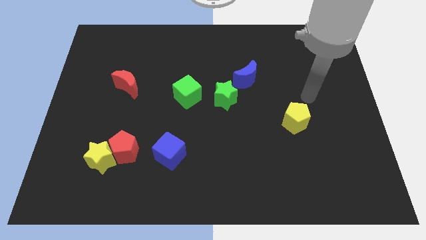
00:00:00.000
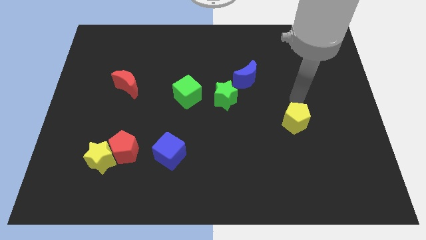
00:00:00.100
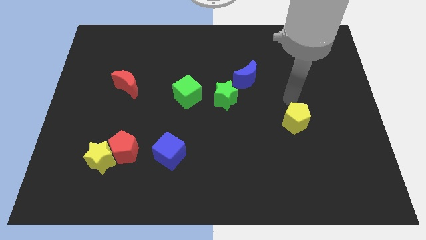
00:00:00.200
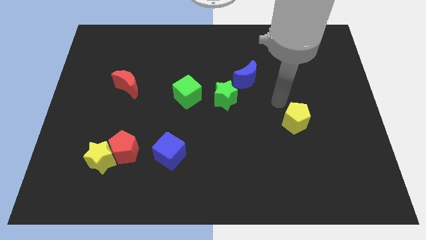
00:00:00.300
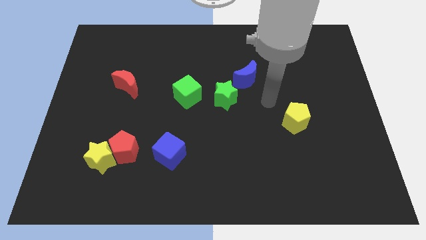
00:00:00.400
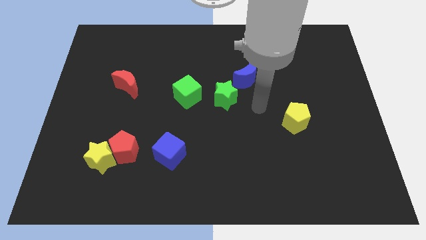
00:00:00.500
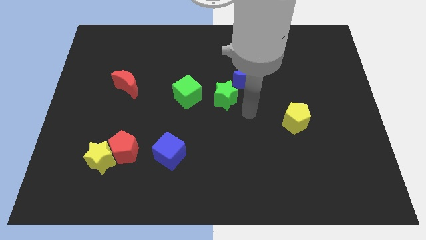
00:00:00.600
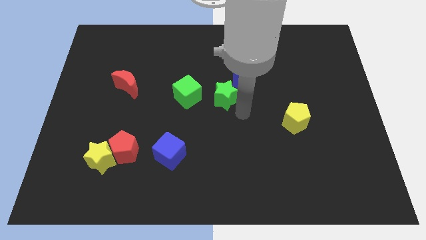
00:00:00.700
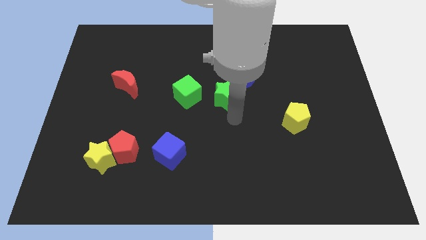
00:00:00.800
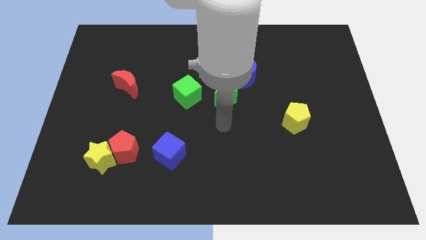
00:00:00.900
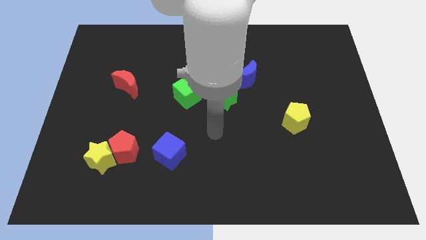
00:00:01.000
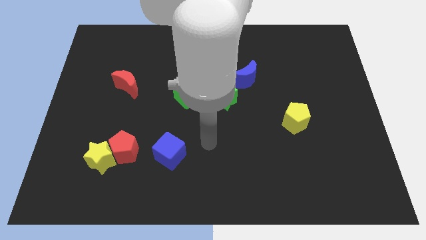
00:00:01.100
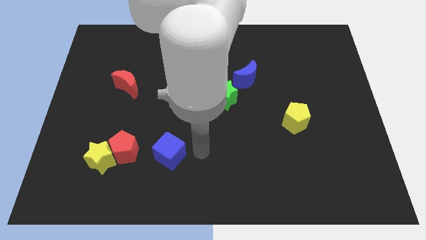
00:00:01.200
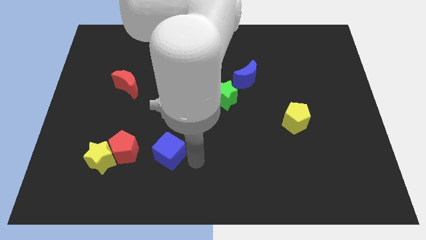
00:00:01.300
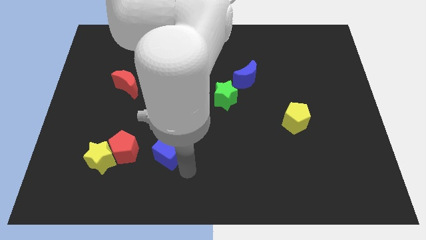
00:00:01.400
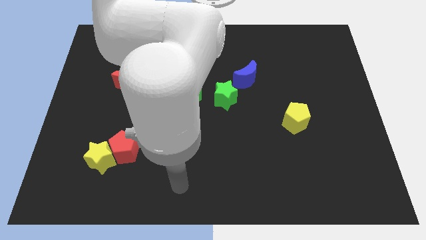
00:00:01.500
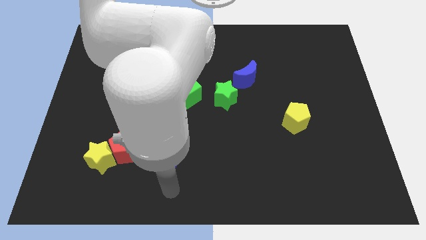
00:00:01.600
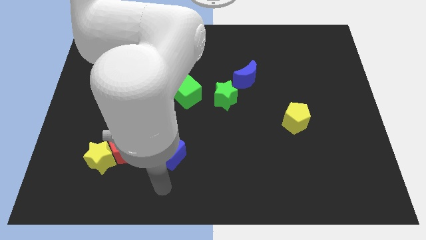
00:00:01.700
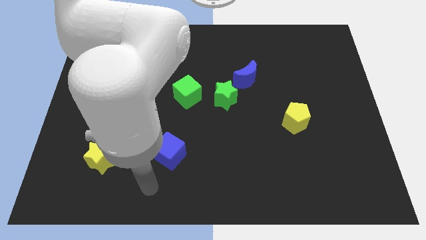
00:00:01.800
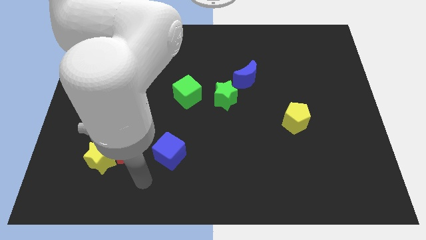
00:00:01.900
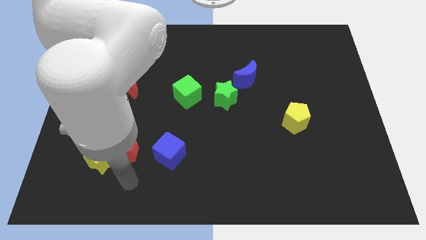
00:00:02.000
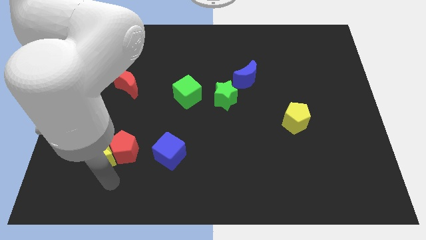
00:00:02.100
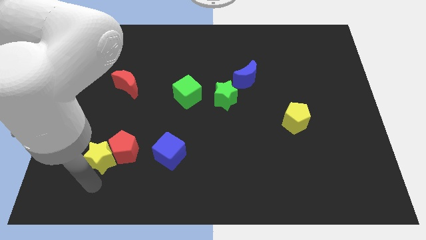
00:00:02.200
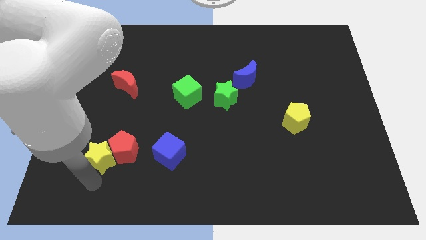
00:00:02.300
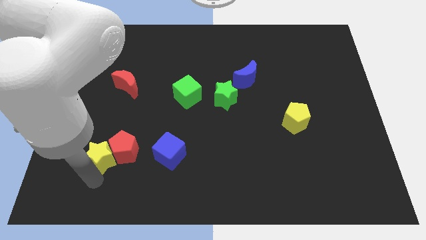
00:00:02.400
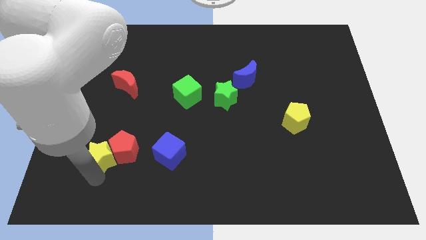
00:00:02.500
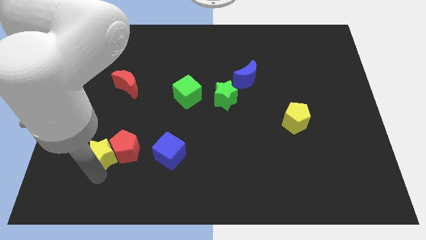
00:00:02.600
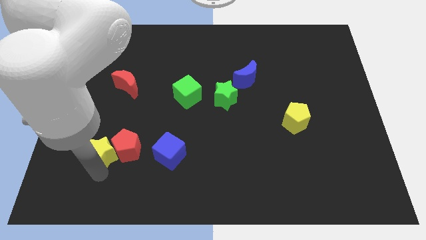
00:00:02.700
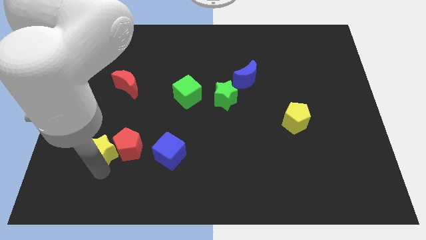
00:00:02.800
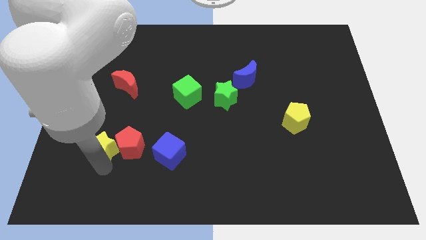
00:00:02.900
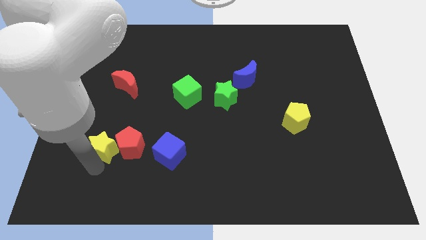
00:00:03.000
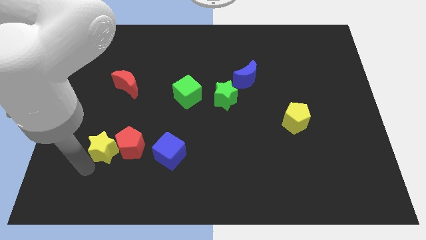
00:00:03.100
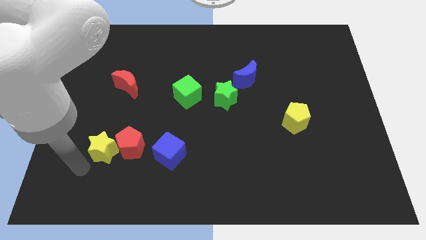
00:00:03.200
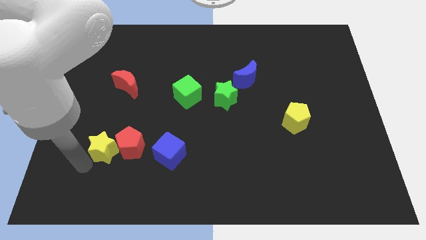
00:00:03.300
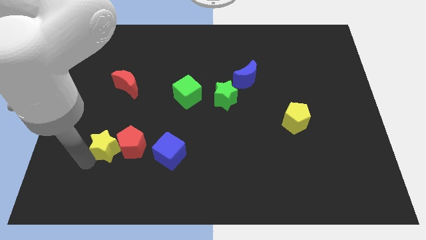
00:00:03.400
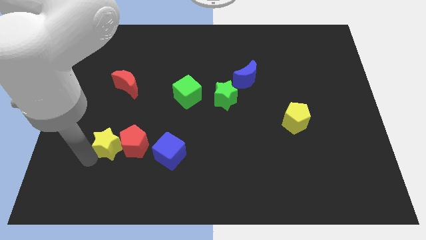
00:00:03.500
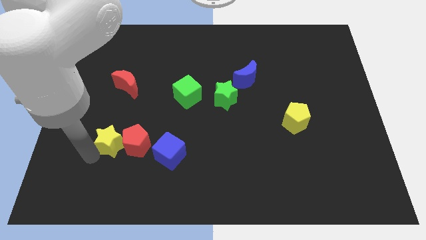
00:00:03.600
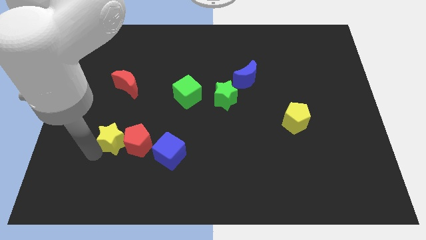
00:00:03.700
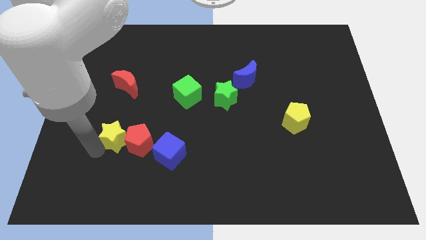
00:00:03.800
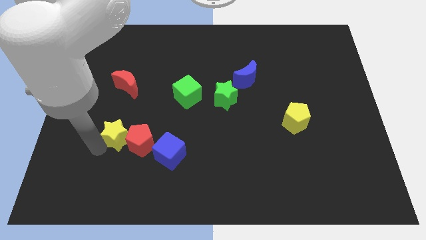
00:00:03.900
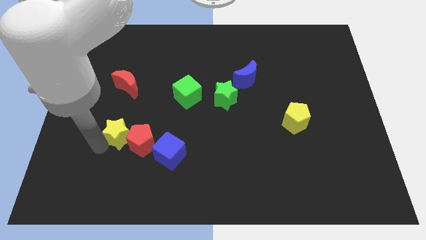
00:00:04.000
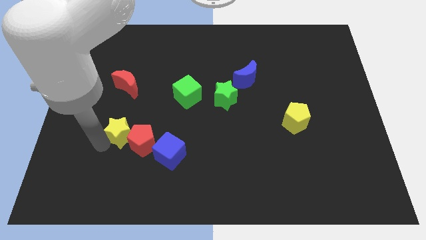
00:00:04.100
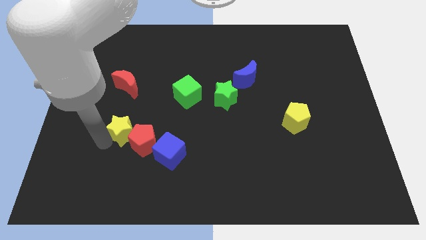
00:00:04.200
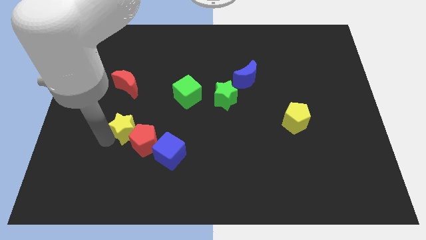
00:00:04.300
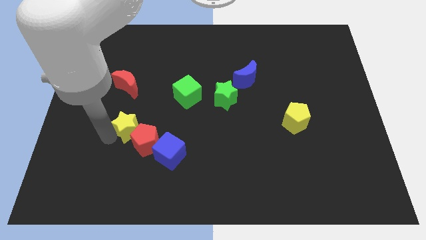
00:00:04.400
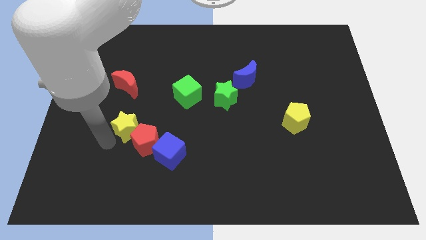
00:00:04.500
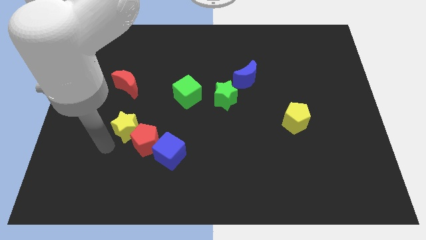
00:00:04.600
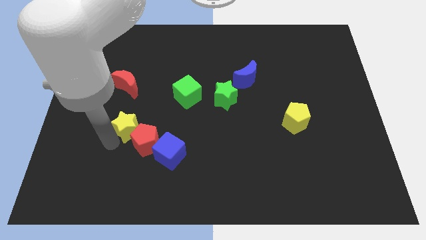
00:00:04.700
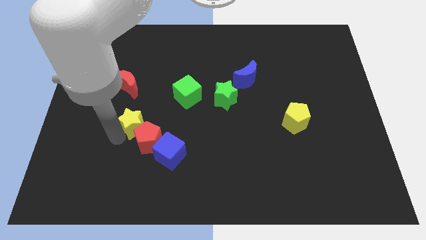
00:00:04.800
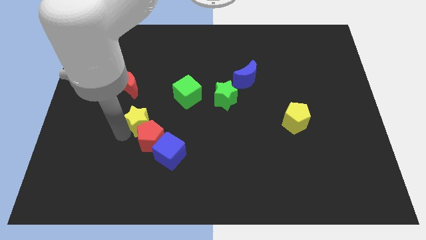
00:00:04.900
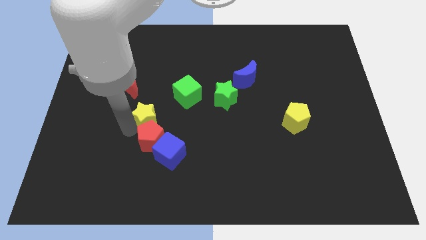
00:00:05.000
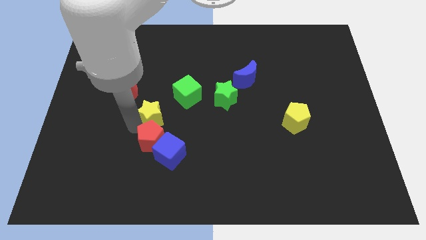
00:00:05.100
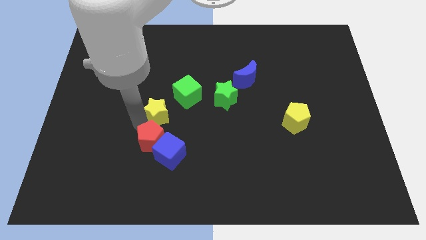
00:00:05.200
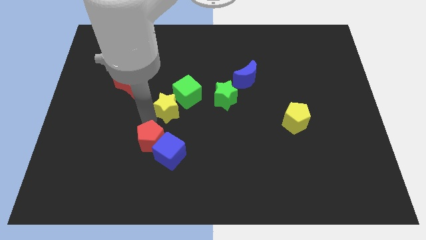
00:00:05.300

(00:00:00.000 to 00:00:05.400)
move the yellow star towards the green cube

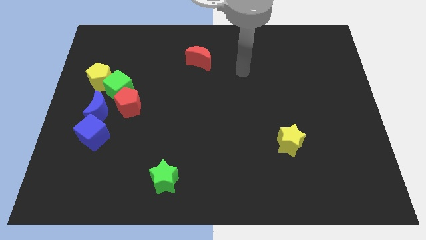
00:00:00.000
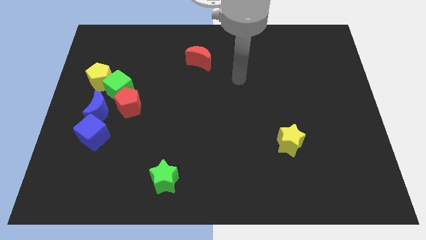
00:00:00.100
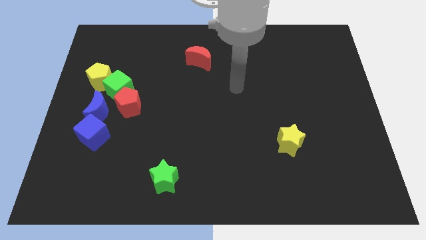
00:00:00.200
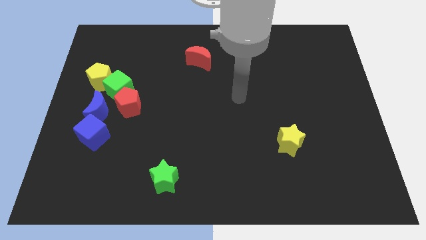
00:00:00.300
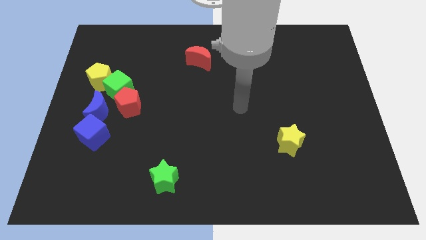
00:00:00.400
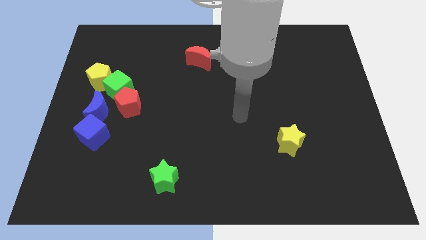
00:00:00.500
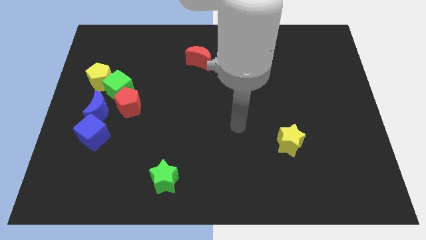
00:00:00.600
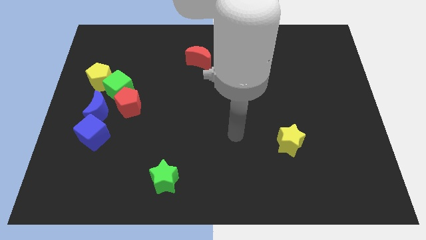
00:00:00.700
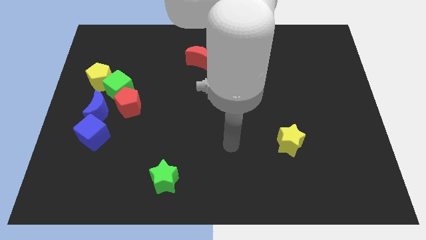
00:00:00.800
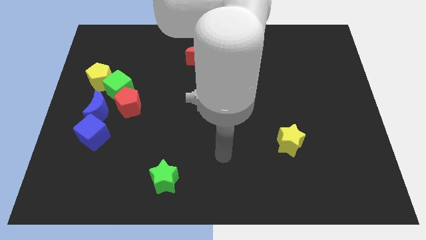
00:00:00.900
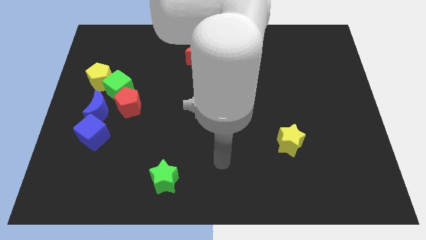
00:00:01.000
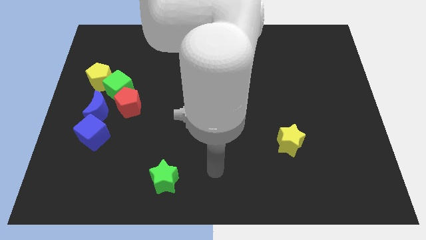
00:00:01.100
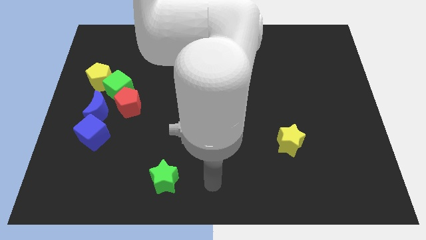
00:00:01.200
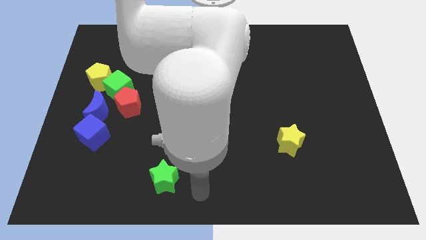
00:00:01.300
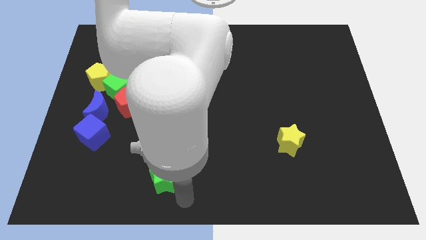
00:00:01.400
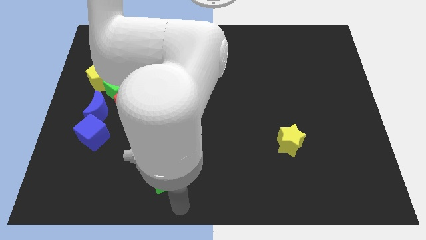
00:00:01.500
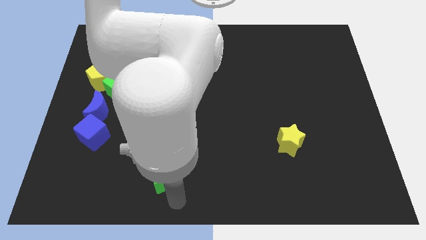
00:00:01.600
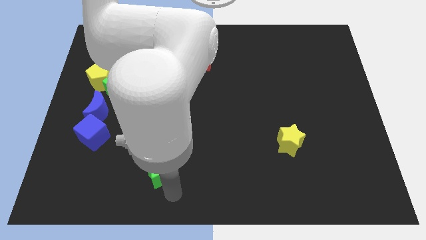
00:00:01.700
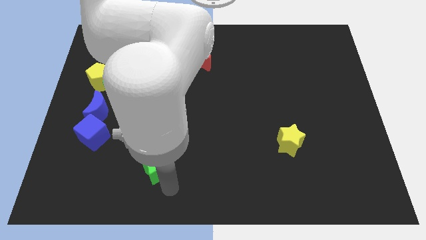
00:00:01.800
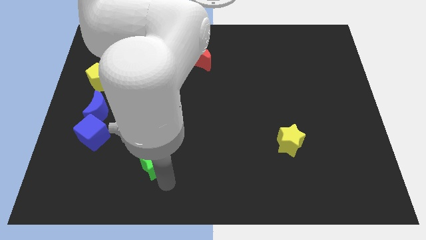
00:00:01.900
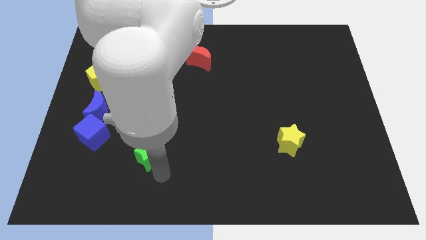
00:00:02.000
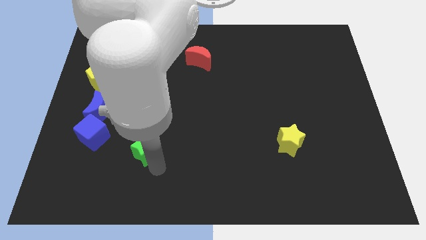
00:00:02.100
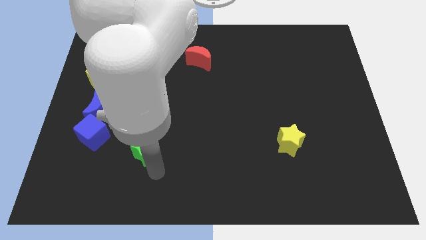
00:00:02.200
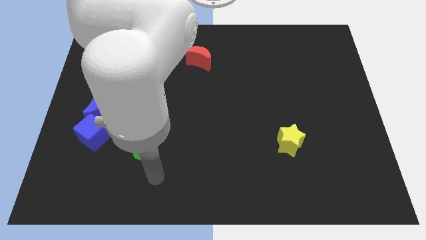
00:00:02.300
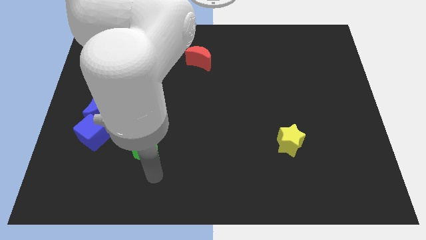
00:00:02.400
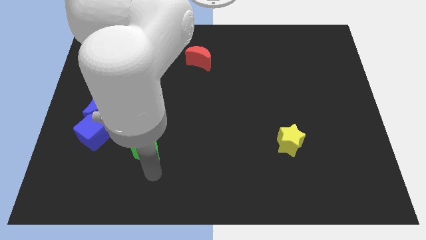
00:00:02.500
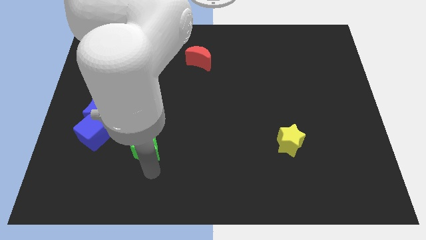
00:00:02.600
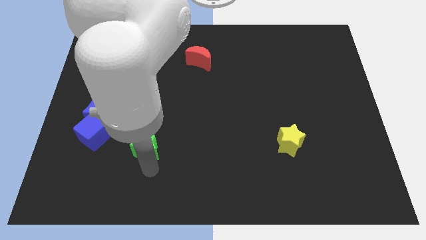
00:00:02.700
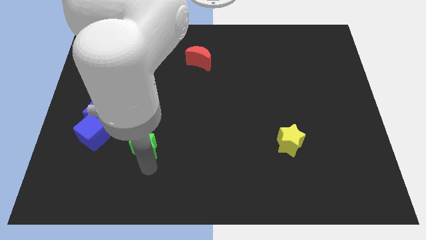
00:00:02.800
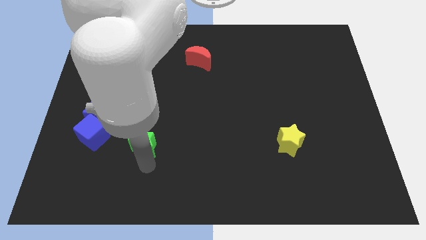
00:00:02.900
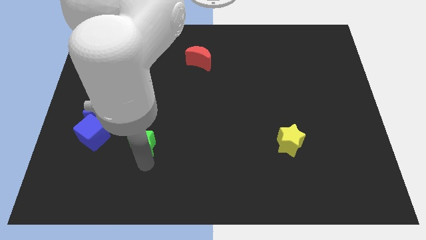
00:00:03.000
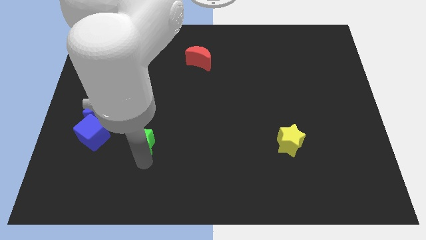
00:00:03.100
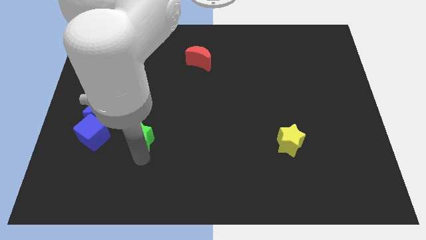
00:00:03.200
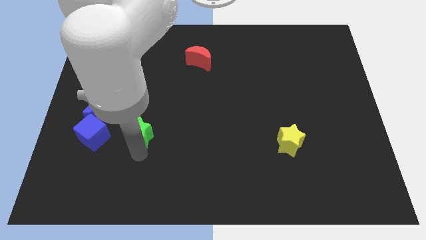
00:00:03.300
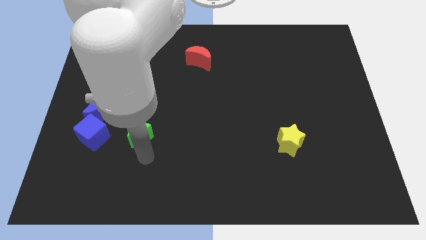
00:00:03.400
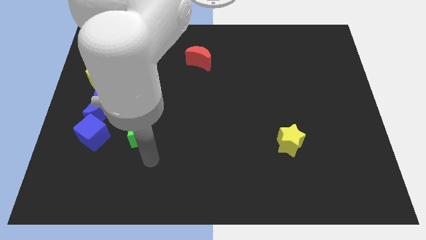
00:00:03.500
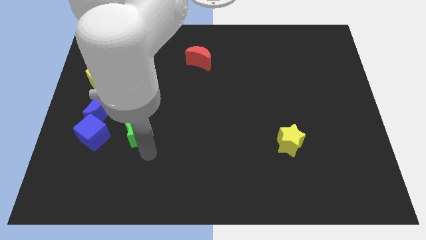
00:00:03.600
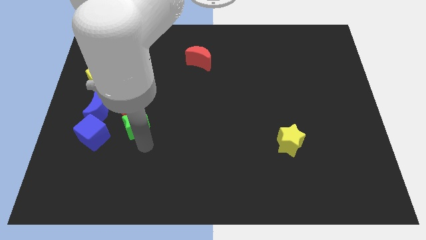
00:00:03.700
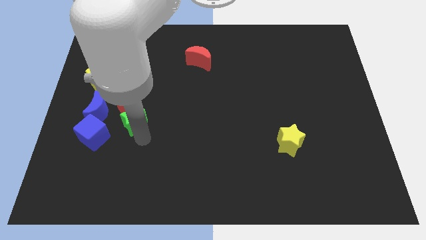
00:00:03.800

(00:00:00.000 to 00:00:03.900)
push the green star next to the red pentagon
